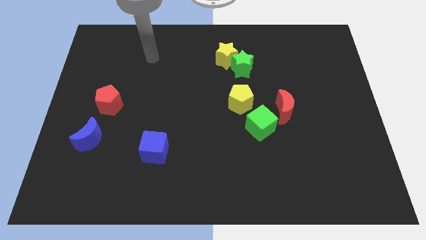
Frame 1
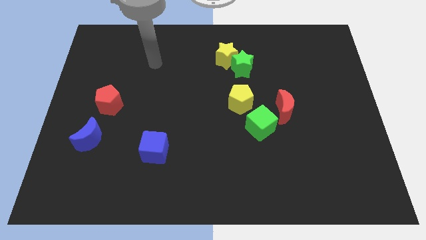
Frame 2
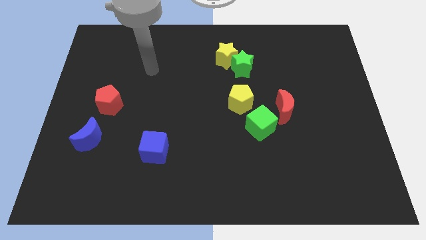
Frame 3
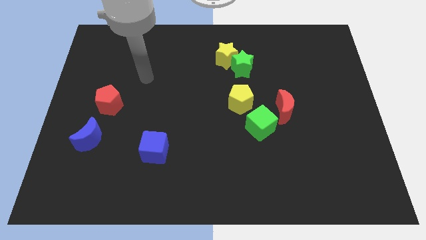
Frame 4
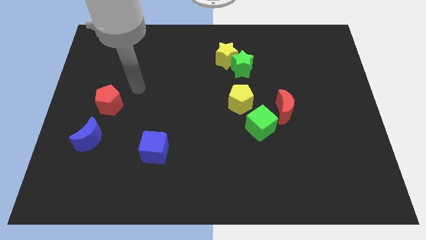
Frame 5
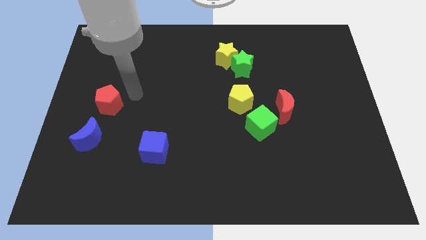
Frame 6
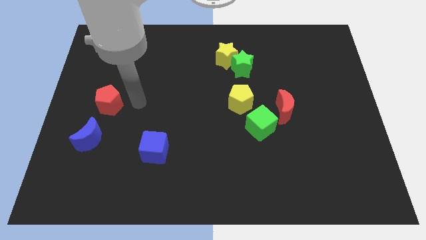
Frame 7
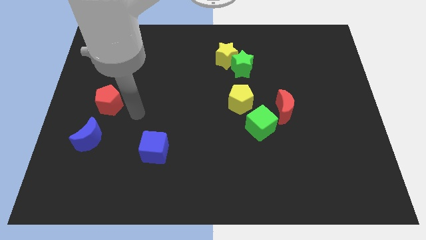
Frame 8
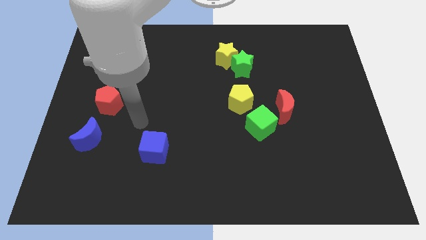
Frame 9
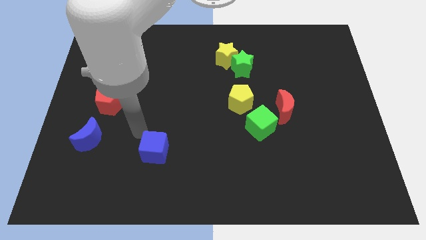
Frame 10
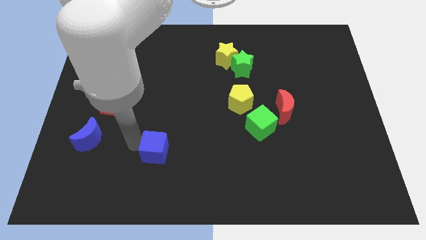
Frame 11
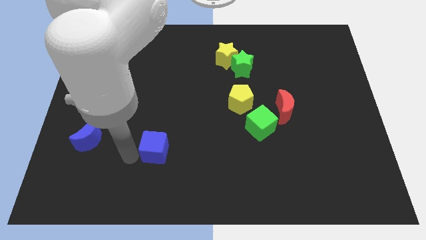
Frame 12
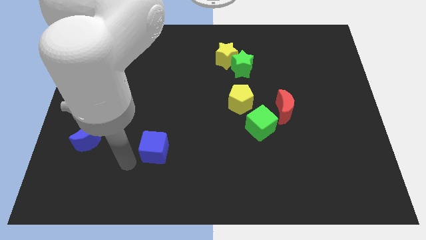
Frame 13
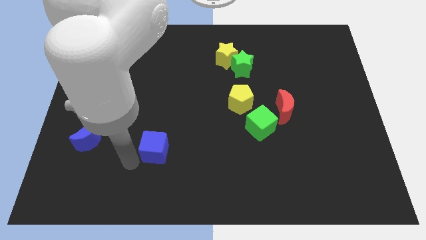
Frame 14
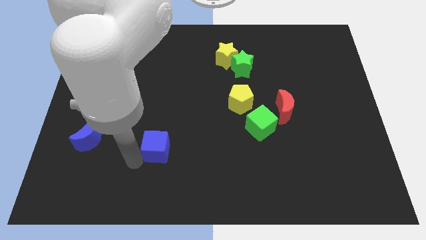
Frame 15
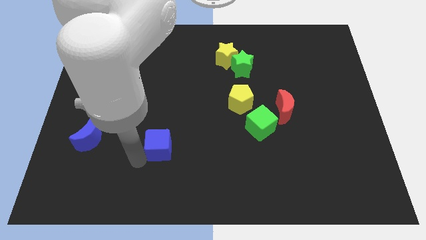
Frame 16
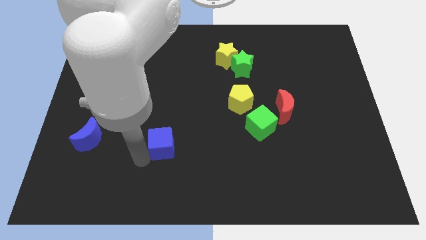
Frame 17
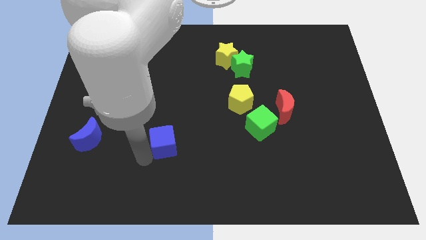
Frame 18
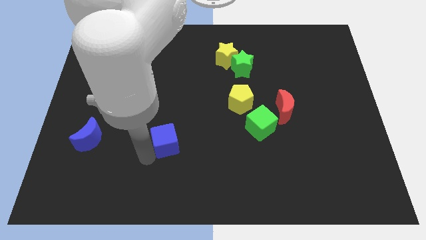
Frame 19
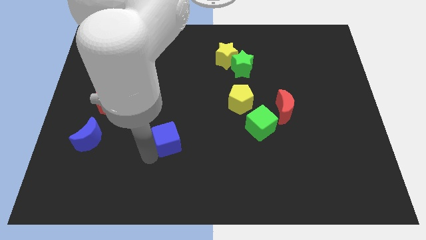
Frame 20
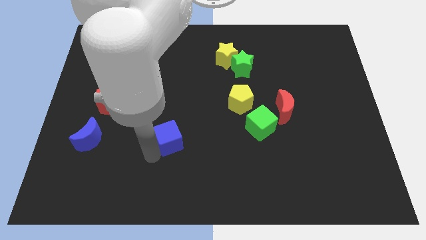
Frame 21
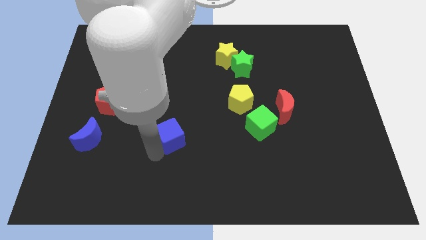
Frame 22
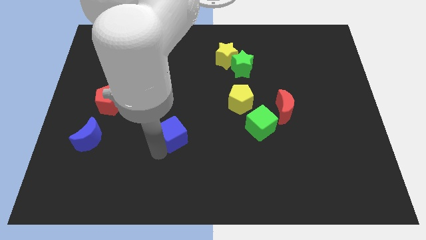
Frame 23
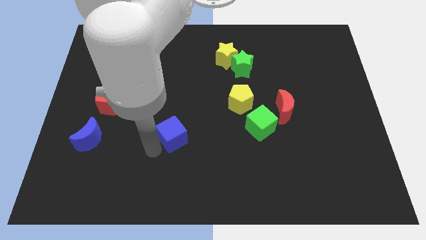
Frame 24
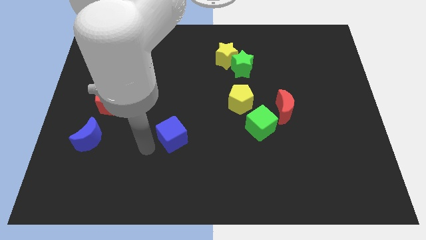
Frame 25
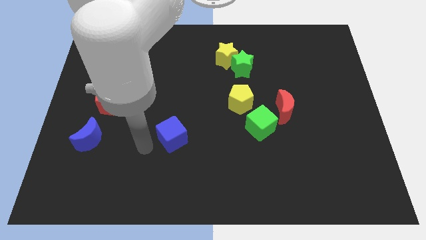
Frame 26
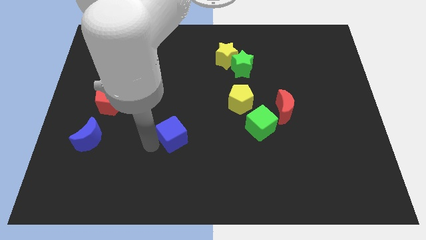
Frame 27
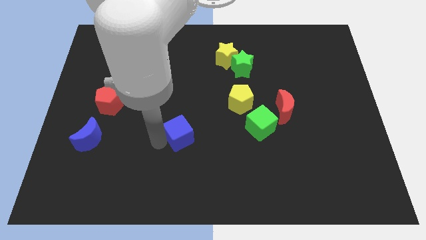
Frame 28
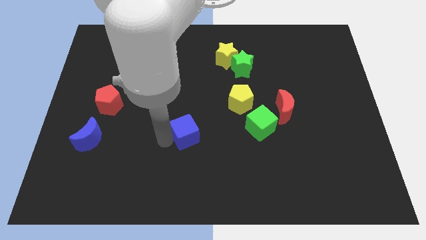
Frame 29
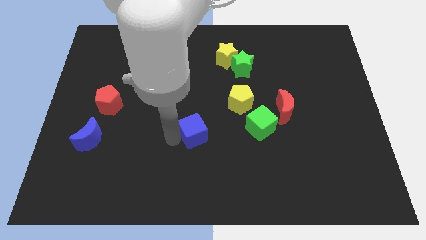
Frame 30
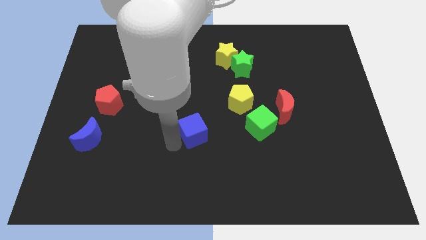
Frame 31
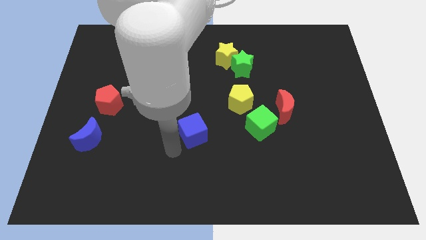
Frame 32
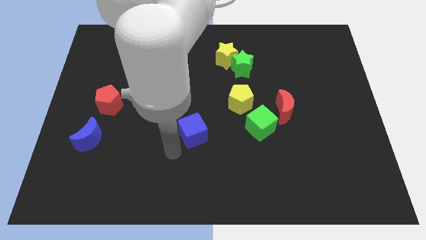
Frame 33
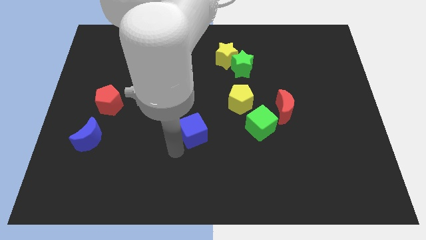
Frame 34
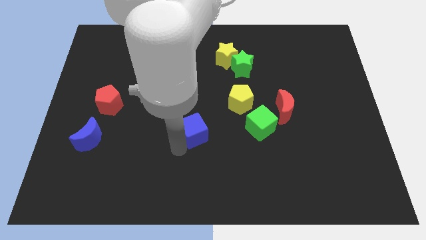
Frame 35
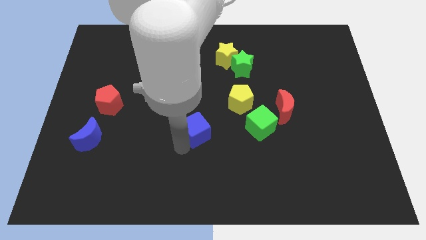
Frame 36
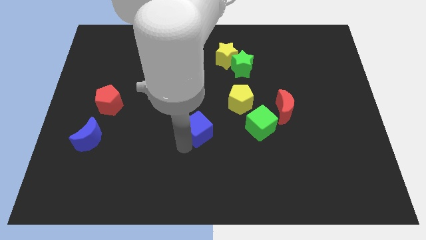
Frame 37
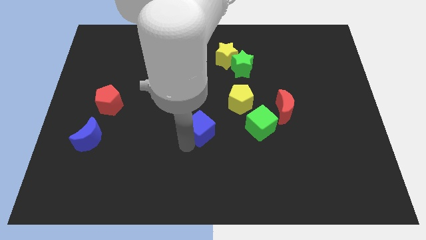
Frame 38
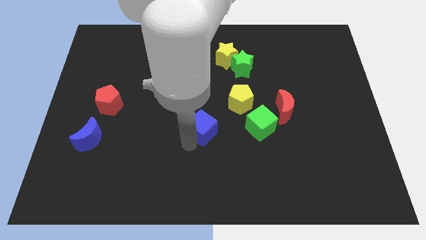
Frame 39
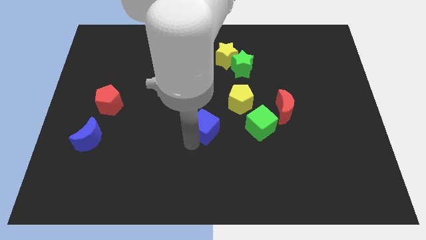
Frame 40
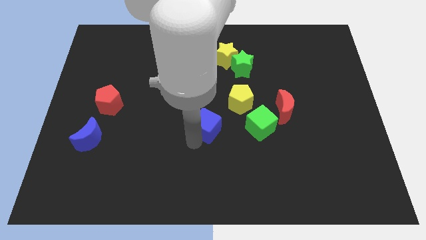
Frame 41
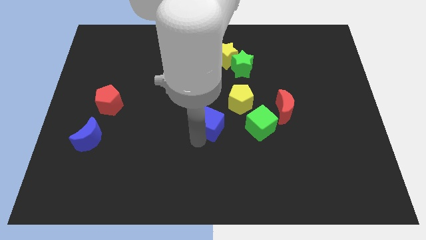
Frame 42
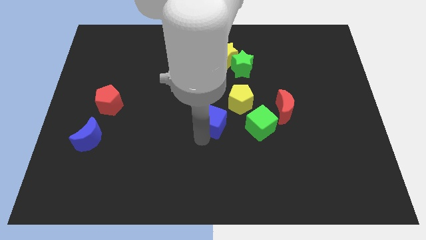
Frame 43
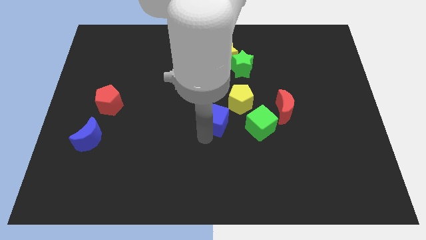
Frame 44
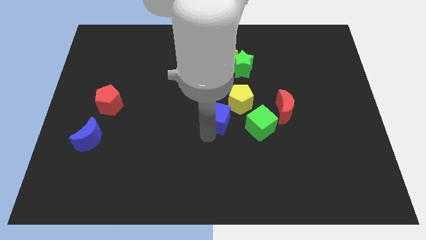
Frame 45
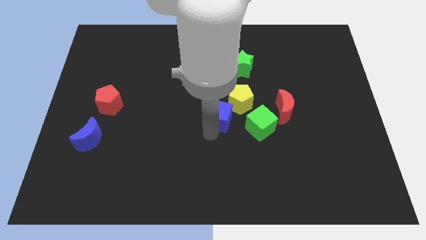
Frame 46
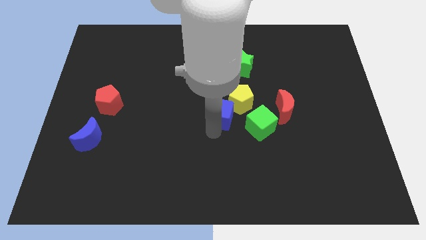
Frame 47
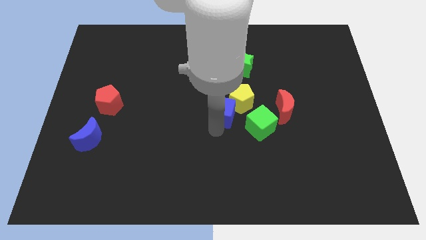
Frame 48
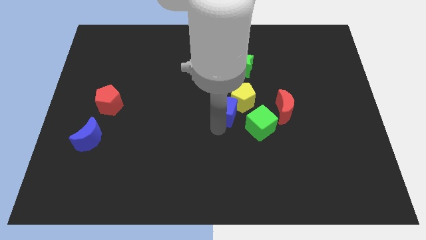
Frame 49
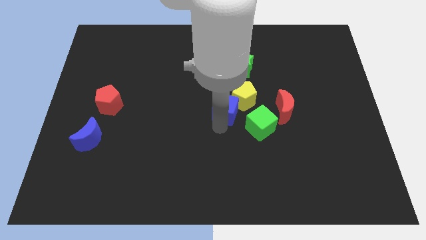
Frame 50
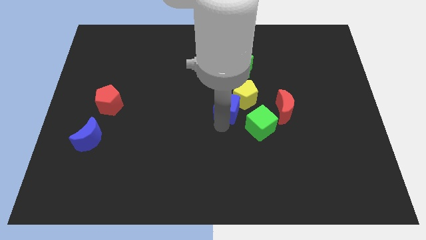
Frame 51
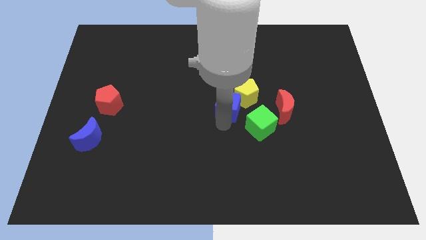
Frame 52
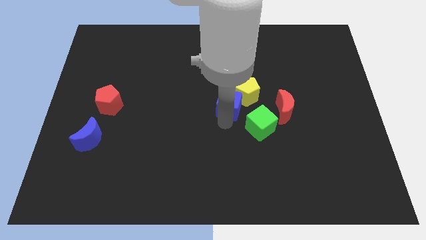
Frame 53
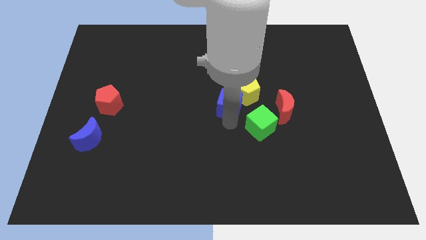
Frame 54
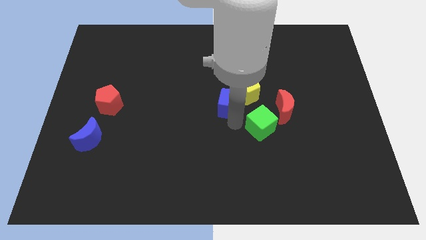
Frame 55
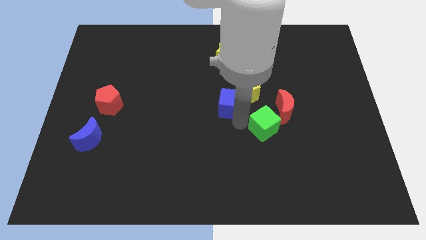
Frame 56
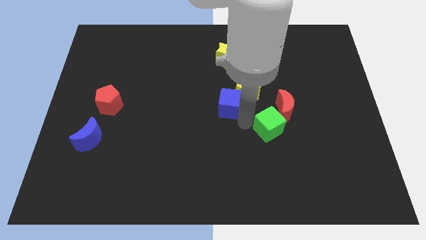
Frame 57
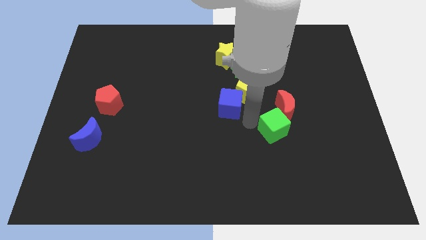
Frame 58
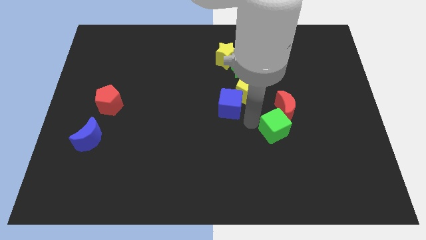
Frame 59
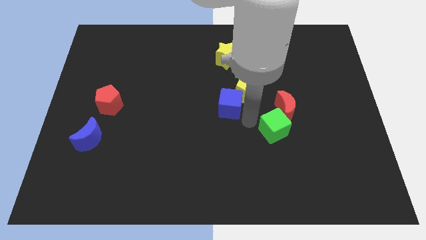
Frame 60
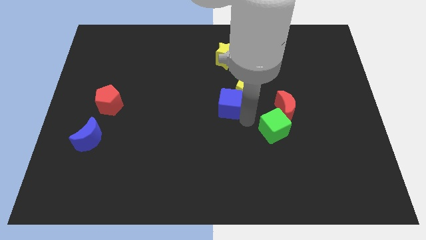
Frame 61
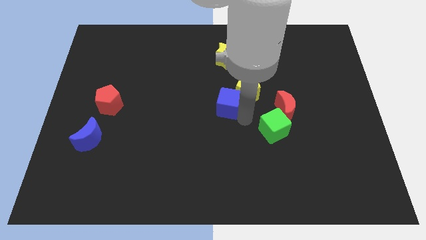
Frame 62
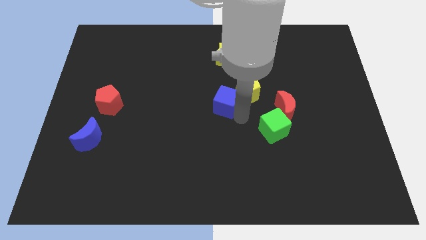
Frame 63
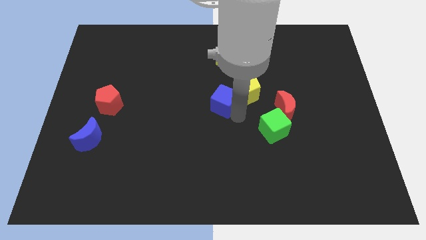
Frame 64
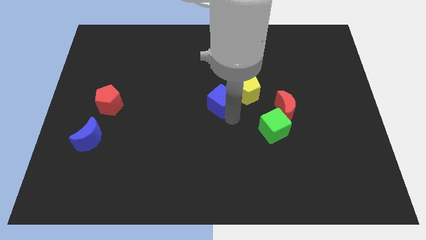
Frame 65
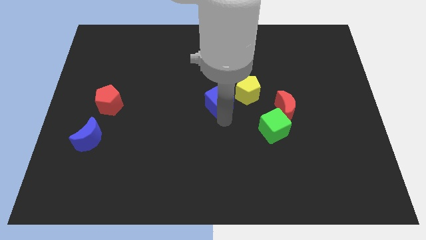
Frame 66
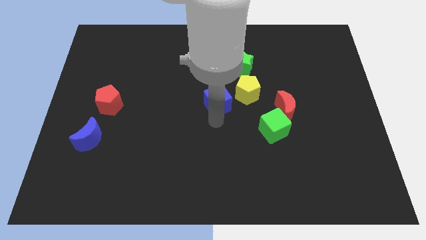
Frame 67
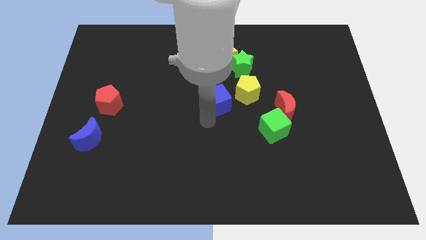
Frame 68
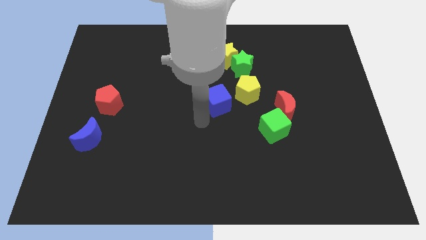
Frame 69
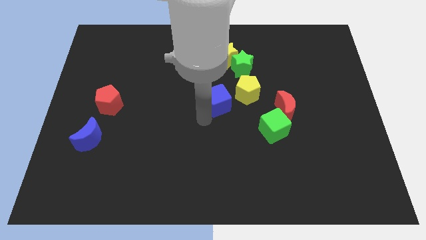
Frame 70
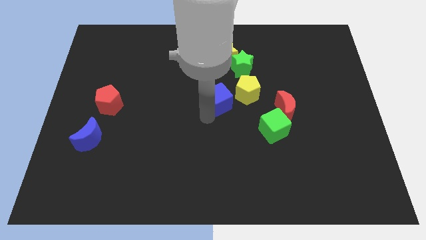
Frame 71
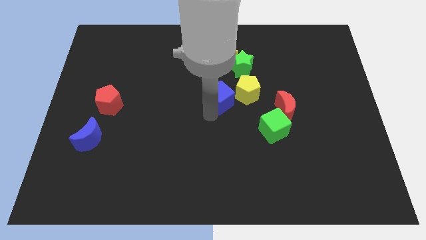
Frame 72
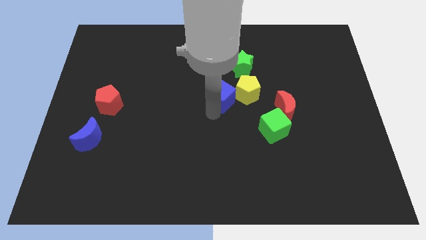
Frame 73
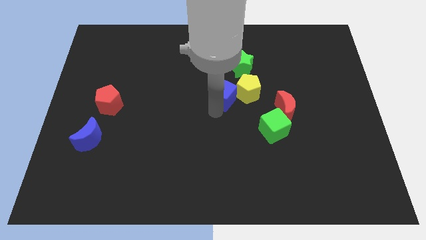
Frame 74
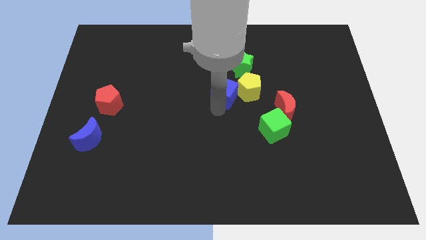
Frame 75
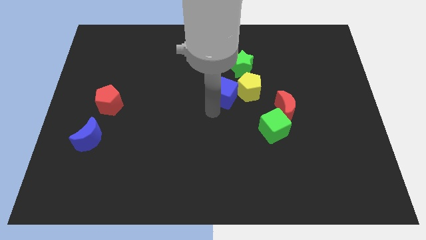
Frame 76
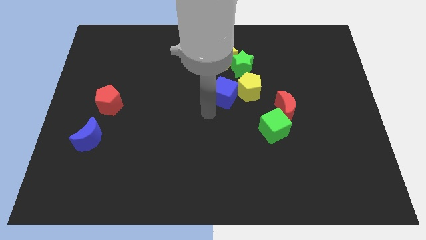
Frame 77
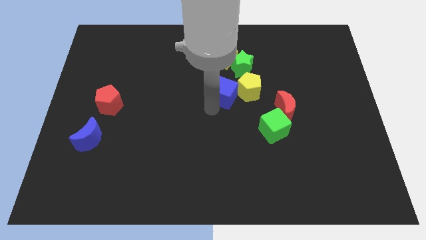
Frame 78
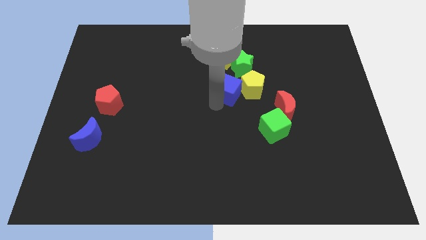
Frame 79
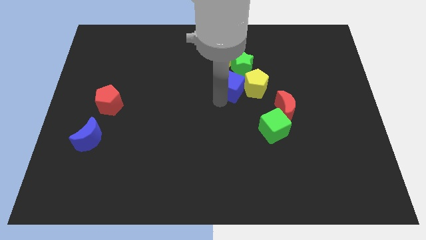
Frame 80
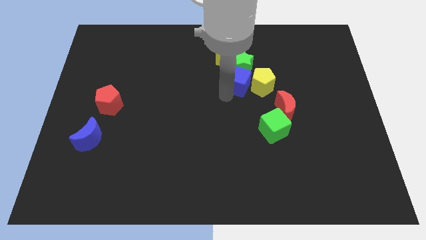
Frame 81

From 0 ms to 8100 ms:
move the blue cube towards the green star
